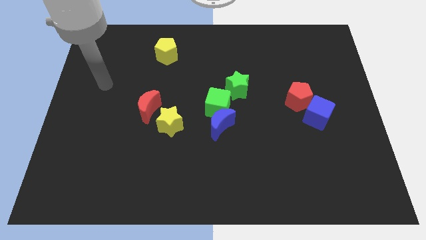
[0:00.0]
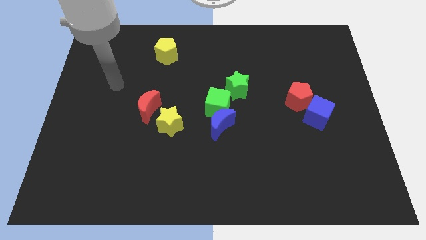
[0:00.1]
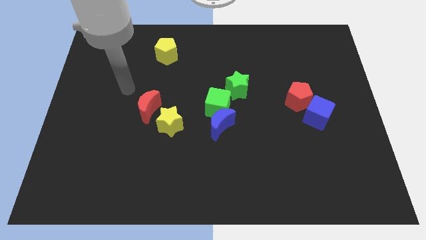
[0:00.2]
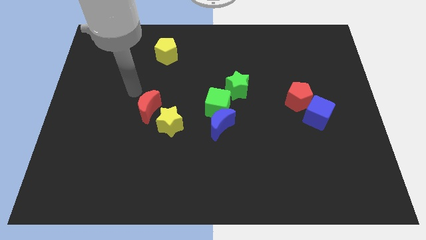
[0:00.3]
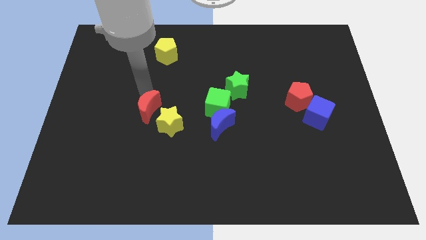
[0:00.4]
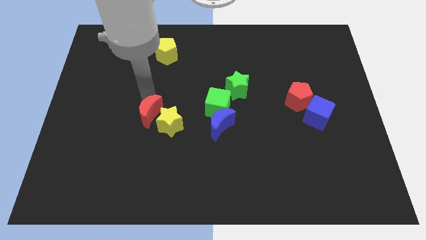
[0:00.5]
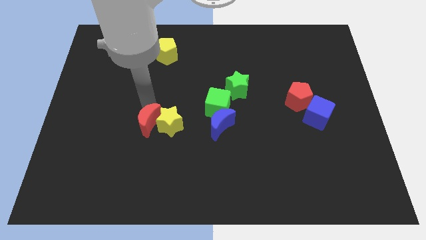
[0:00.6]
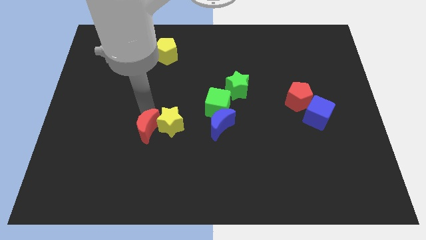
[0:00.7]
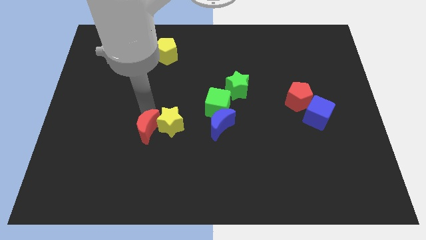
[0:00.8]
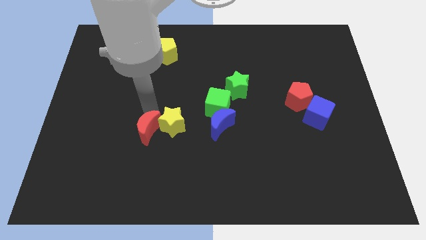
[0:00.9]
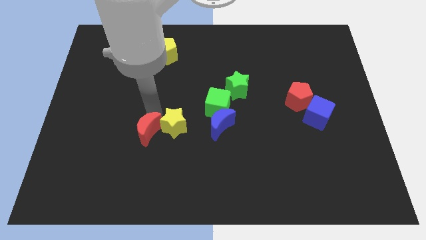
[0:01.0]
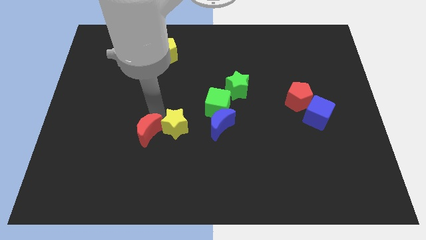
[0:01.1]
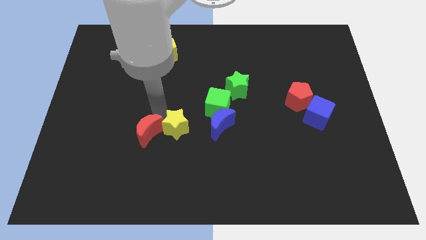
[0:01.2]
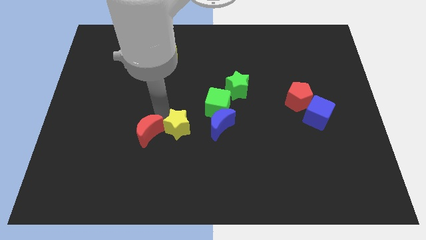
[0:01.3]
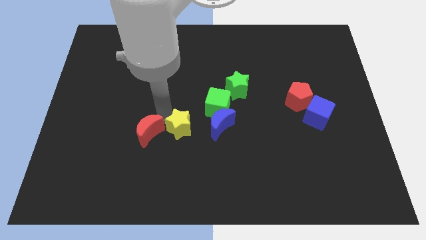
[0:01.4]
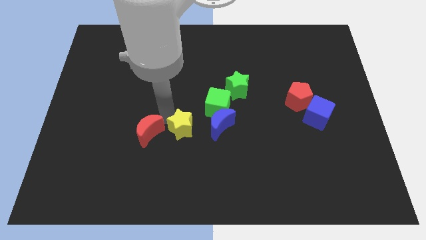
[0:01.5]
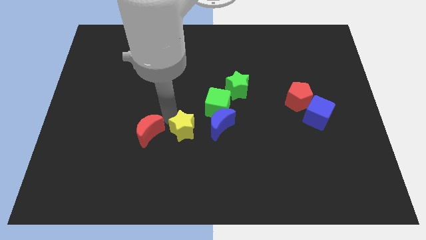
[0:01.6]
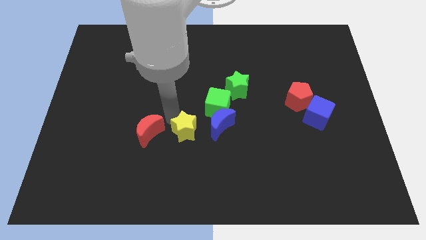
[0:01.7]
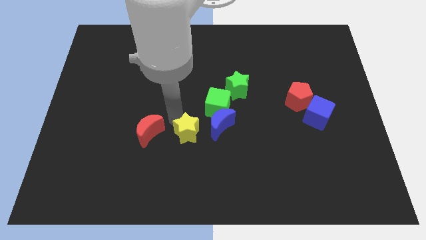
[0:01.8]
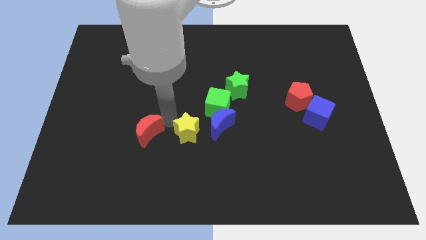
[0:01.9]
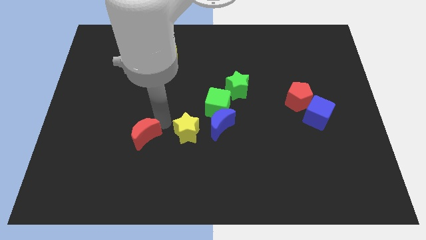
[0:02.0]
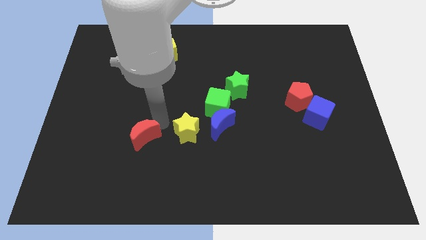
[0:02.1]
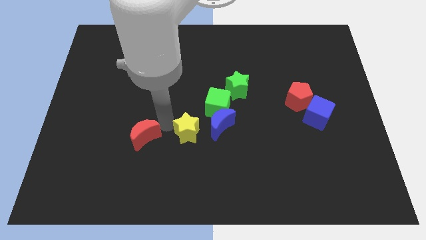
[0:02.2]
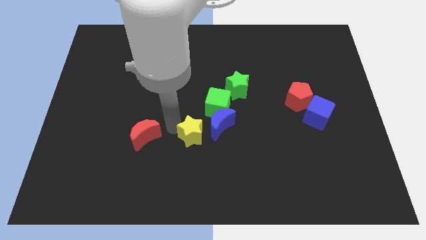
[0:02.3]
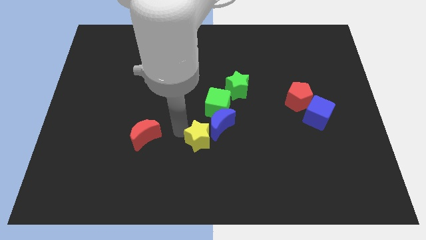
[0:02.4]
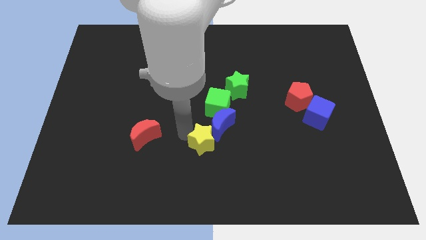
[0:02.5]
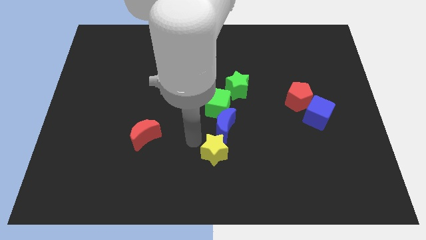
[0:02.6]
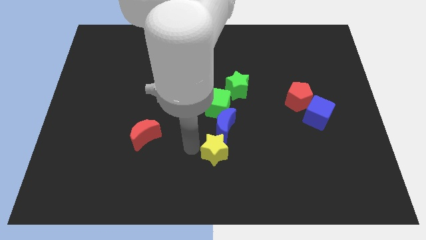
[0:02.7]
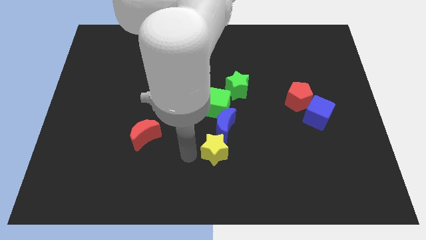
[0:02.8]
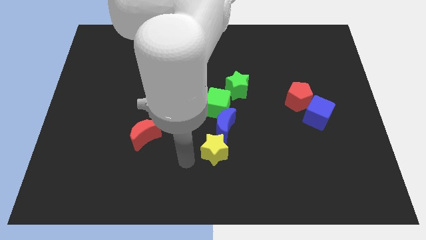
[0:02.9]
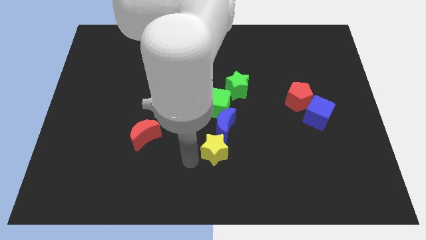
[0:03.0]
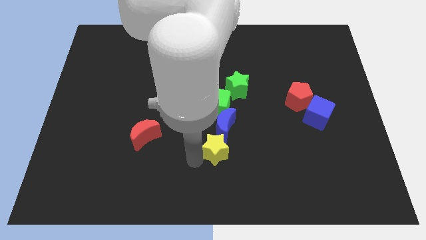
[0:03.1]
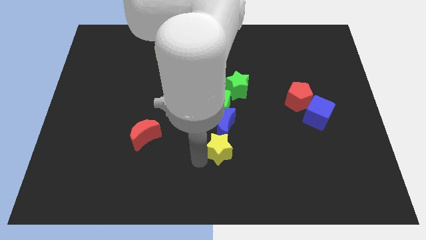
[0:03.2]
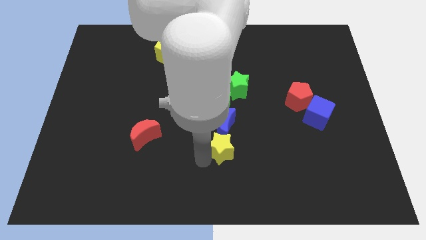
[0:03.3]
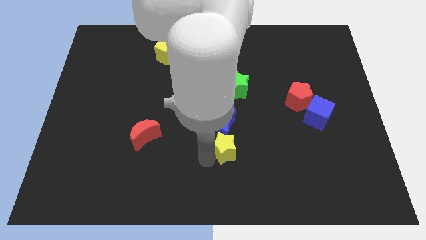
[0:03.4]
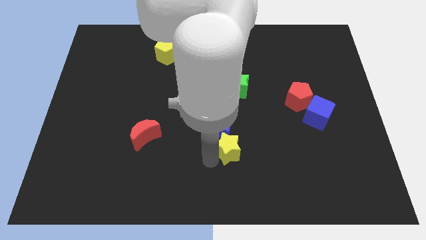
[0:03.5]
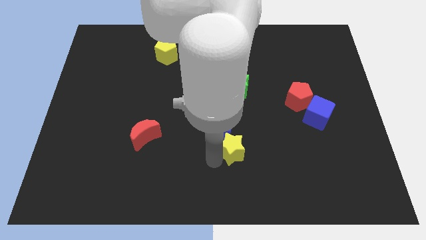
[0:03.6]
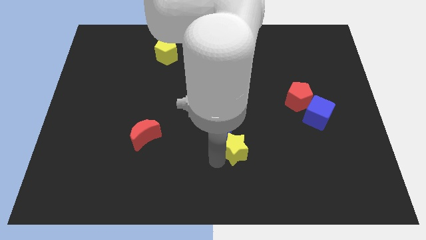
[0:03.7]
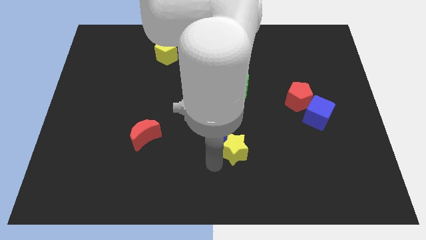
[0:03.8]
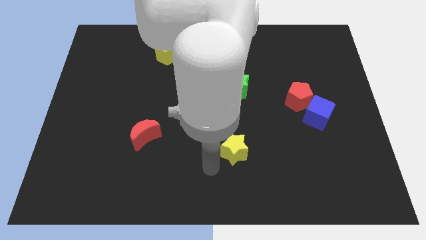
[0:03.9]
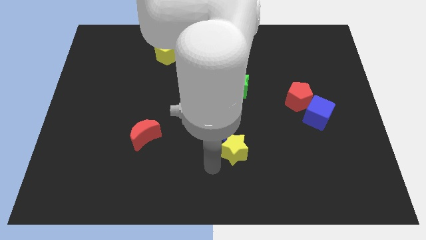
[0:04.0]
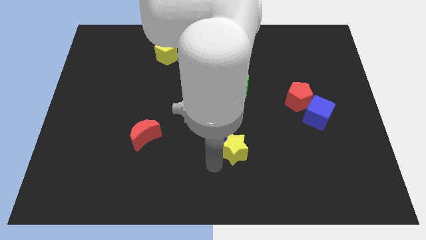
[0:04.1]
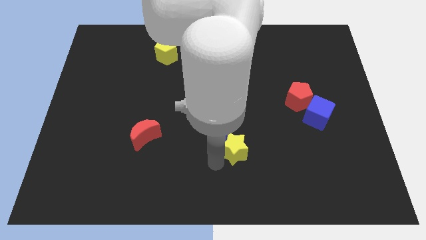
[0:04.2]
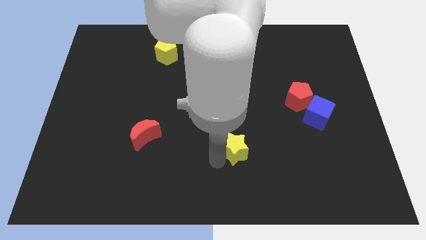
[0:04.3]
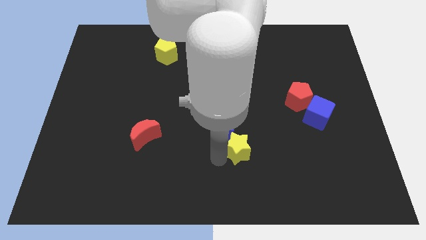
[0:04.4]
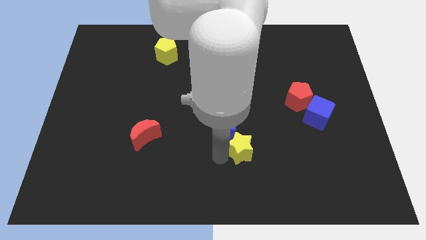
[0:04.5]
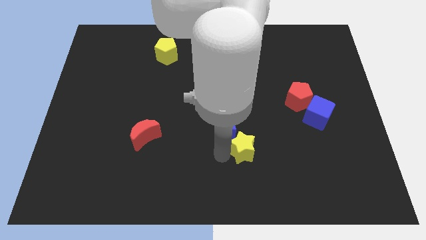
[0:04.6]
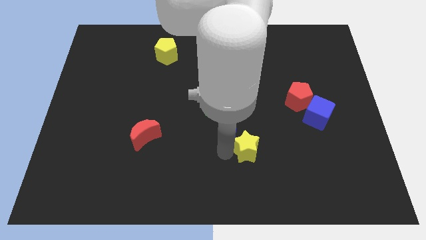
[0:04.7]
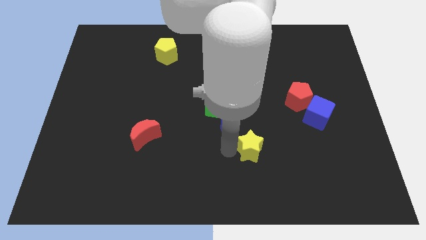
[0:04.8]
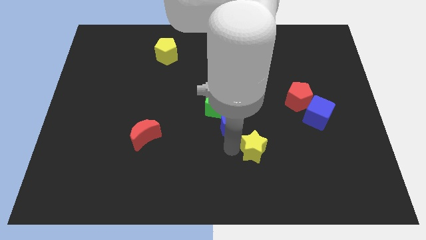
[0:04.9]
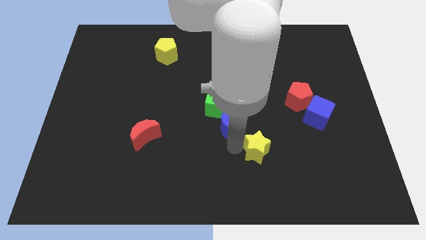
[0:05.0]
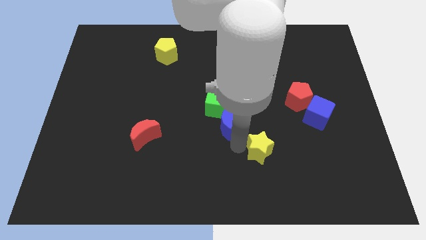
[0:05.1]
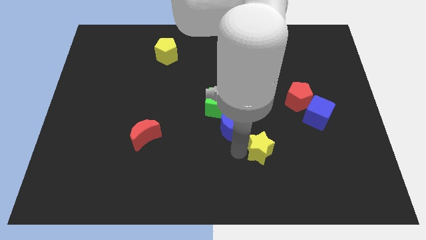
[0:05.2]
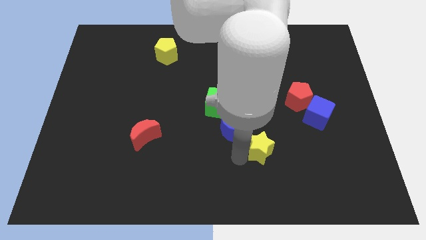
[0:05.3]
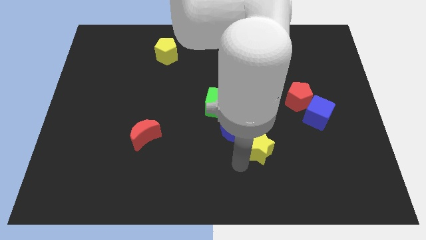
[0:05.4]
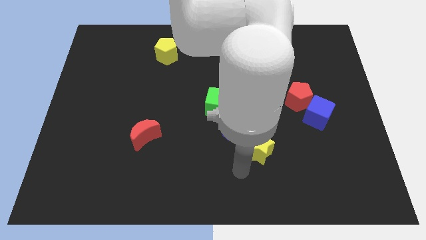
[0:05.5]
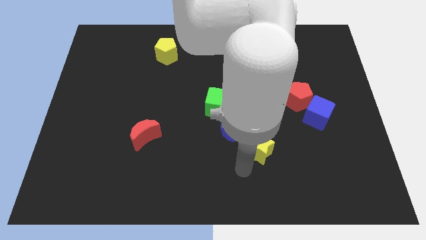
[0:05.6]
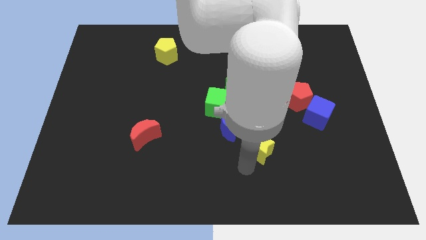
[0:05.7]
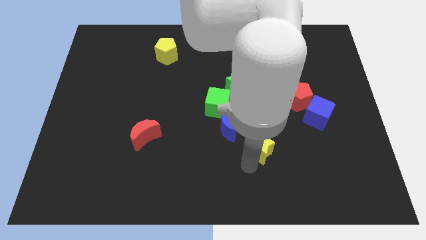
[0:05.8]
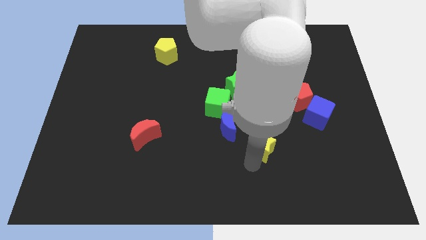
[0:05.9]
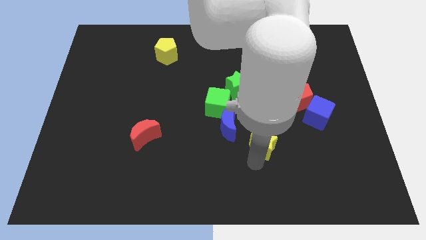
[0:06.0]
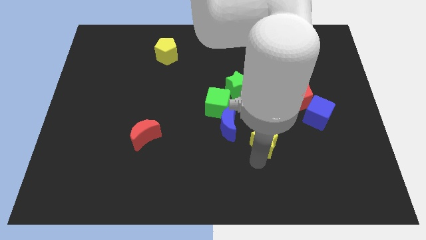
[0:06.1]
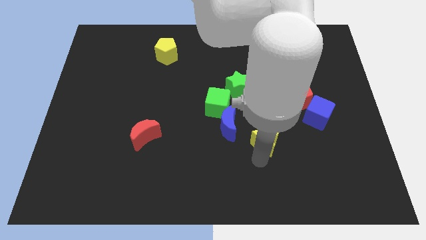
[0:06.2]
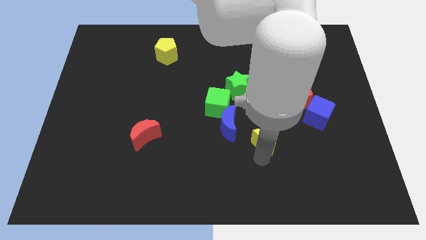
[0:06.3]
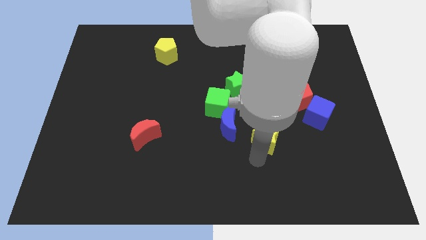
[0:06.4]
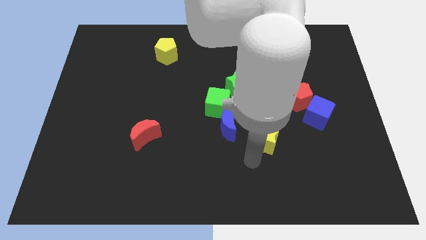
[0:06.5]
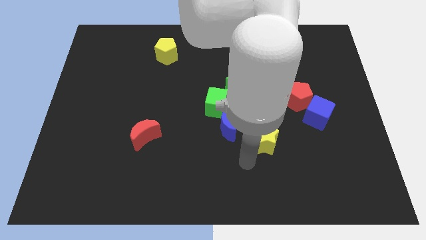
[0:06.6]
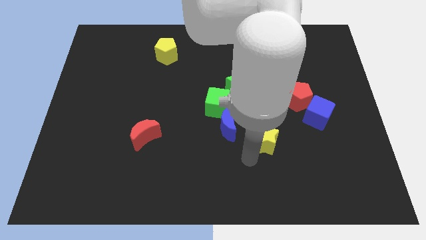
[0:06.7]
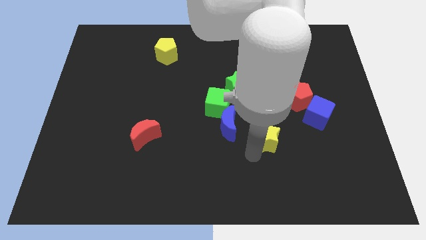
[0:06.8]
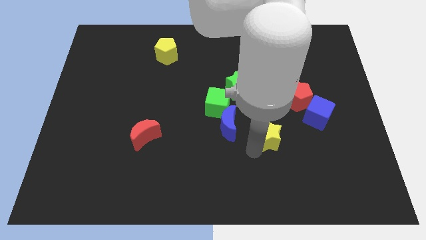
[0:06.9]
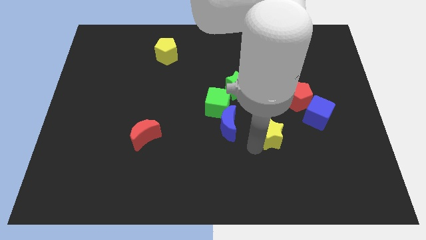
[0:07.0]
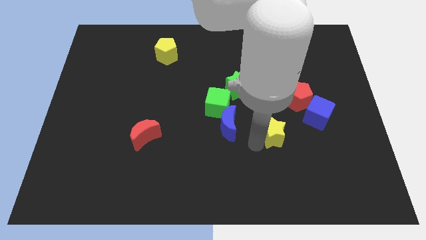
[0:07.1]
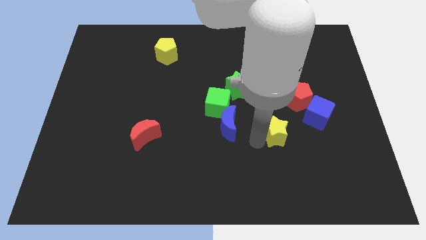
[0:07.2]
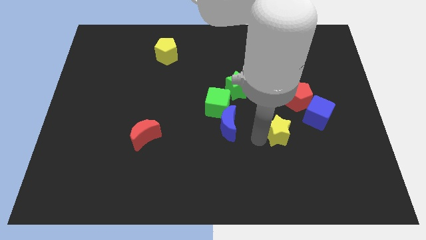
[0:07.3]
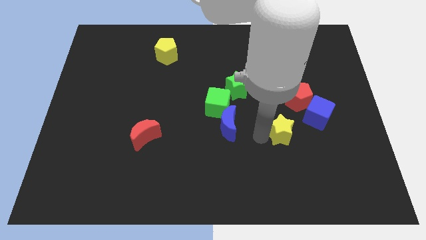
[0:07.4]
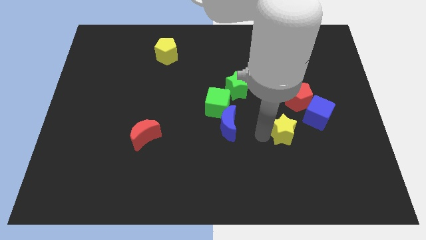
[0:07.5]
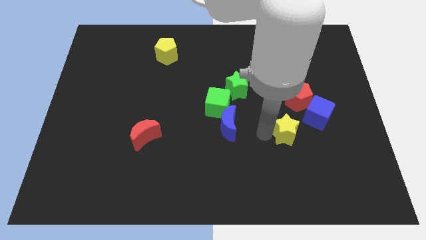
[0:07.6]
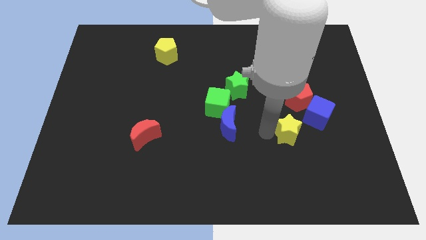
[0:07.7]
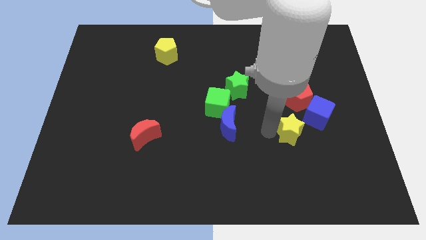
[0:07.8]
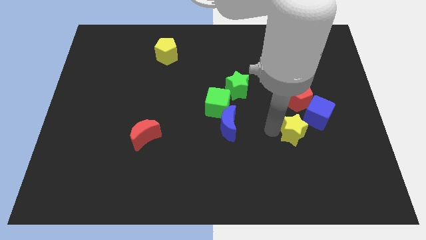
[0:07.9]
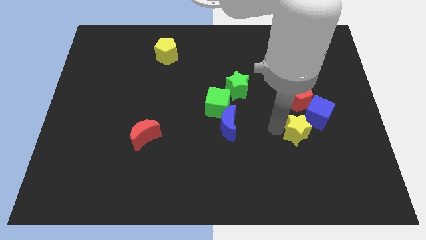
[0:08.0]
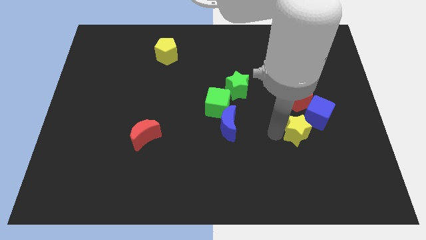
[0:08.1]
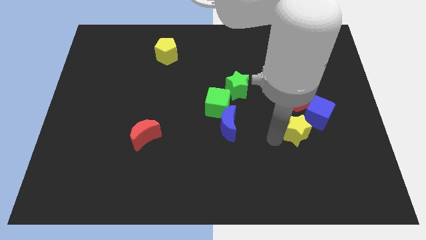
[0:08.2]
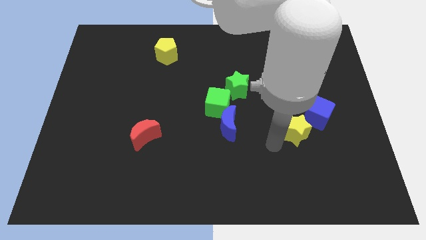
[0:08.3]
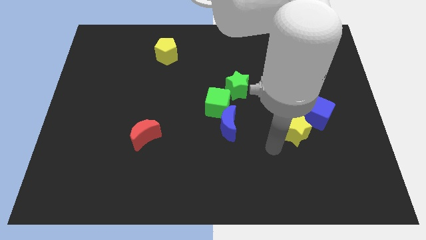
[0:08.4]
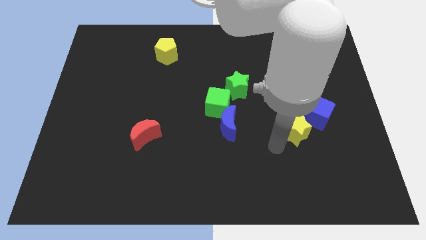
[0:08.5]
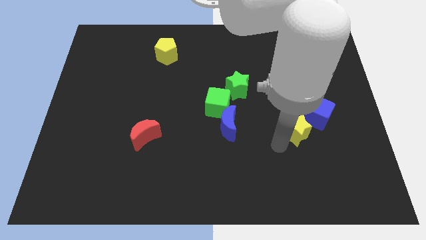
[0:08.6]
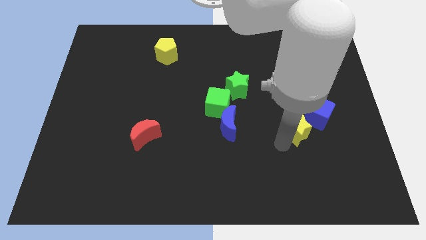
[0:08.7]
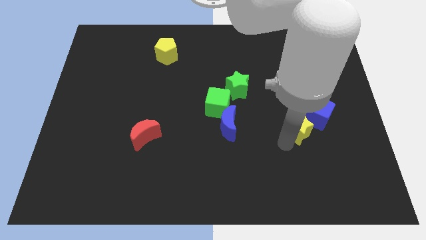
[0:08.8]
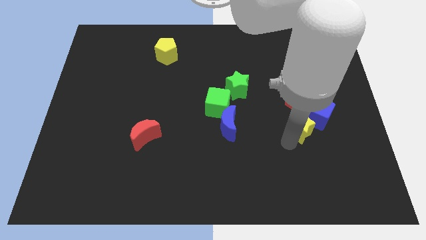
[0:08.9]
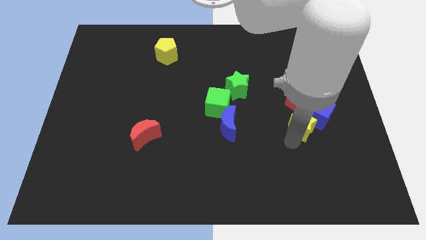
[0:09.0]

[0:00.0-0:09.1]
slide the yellow star close to the blue cube
